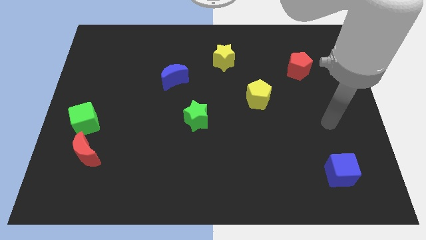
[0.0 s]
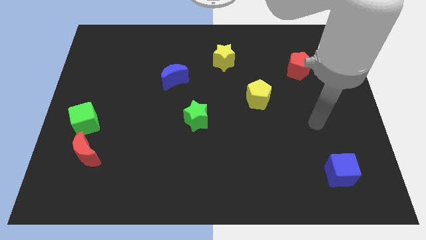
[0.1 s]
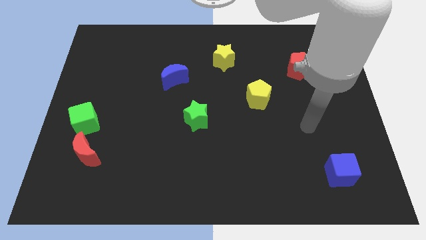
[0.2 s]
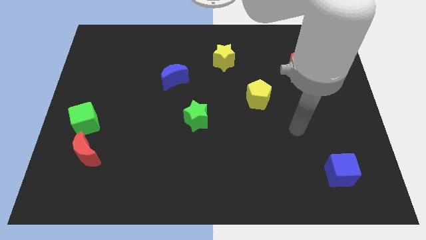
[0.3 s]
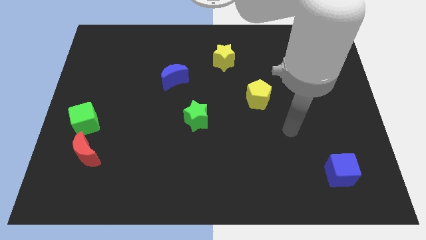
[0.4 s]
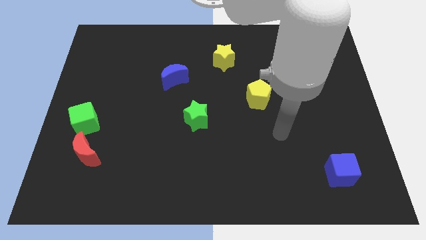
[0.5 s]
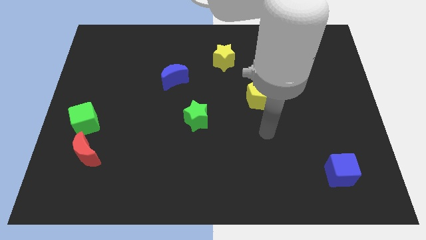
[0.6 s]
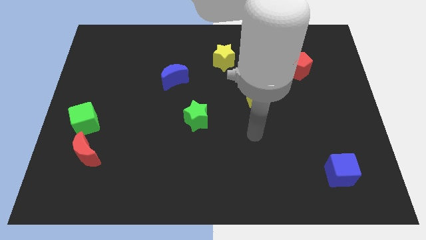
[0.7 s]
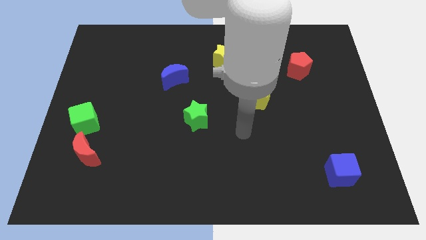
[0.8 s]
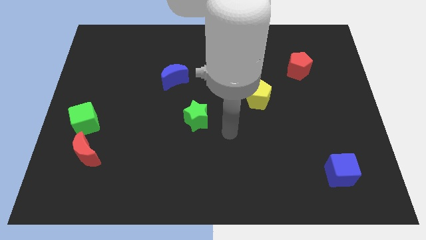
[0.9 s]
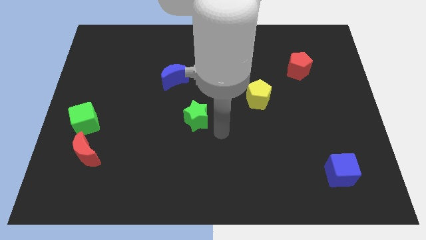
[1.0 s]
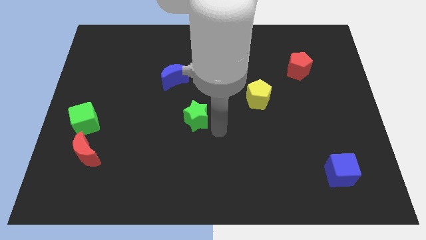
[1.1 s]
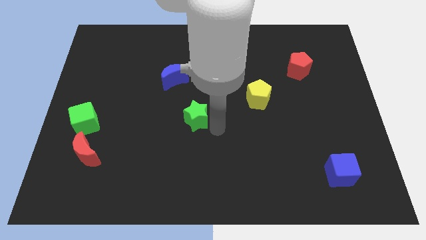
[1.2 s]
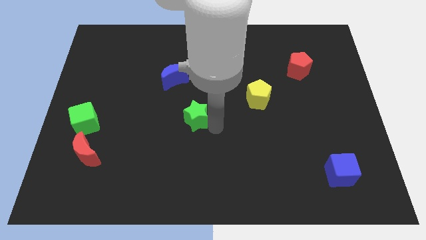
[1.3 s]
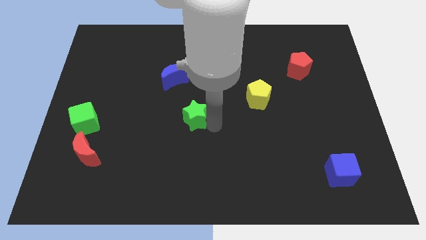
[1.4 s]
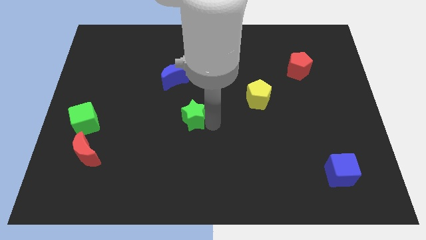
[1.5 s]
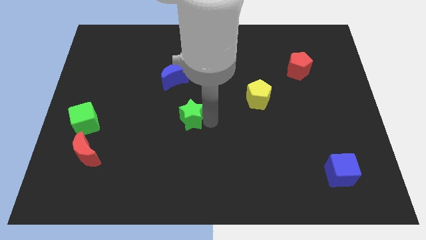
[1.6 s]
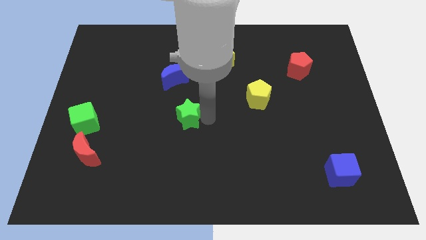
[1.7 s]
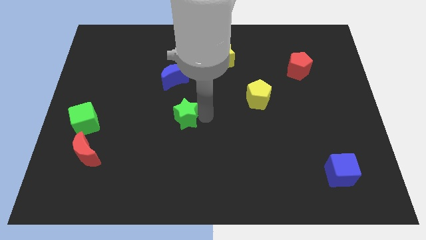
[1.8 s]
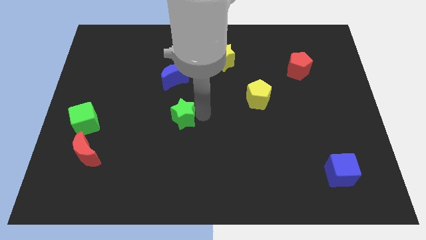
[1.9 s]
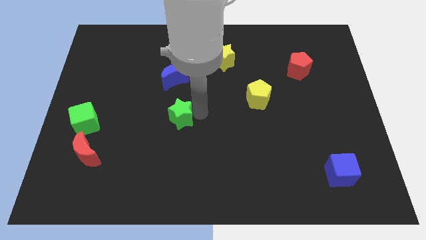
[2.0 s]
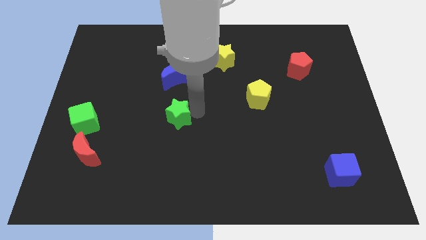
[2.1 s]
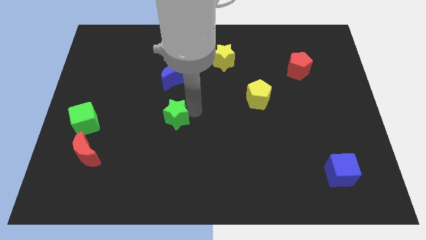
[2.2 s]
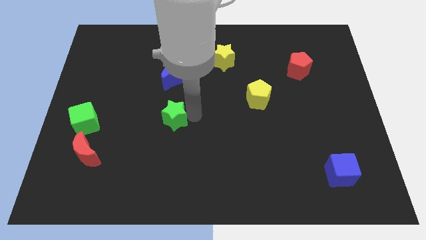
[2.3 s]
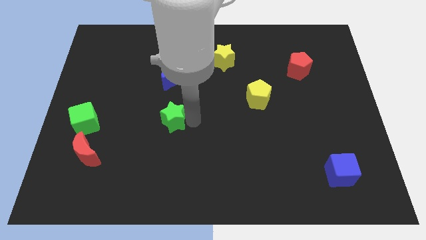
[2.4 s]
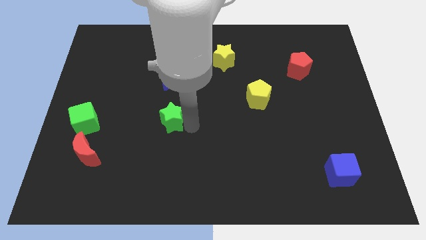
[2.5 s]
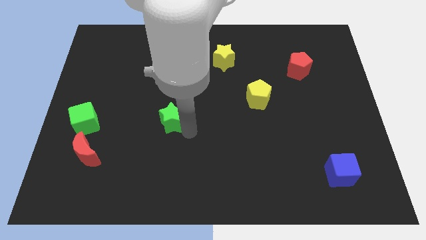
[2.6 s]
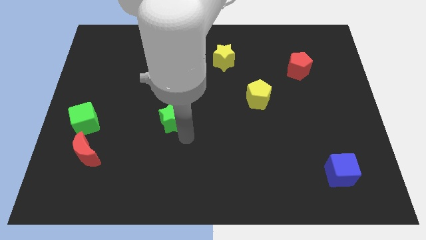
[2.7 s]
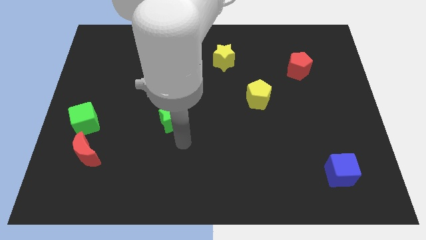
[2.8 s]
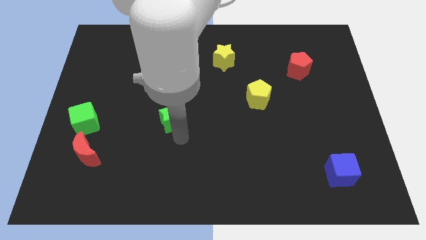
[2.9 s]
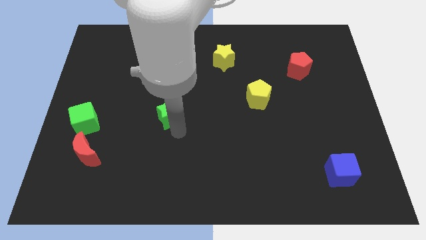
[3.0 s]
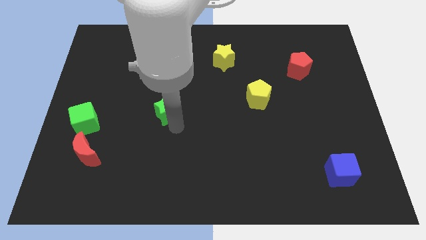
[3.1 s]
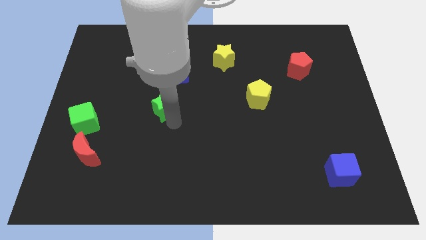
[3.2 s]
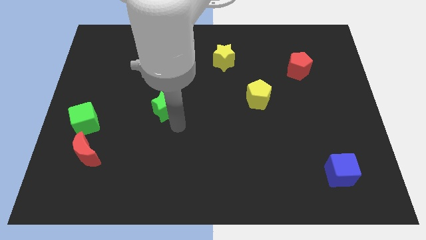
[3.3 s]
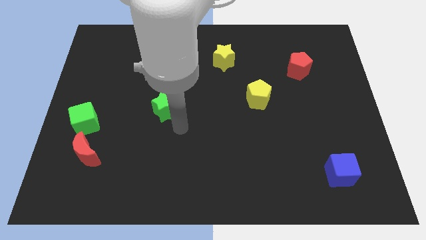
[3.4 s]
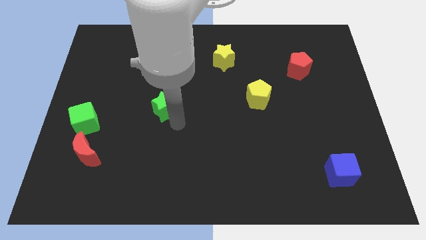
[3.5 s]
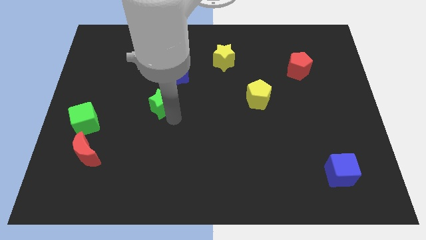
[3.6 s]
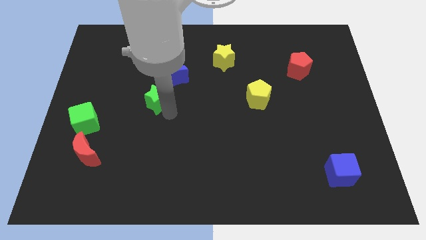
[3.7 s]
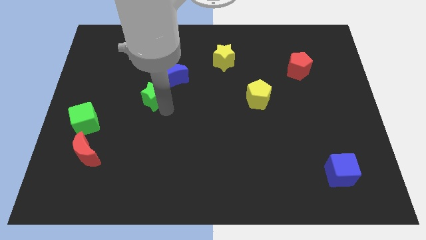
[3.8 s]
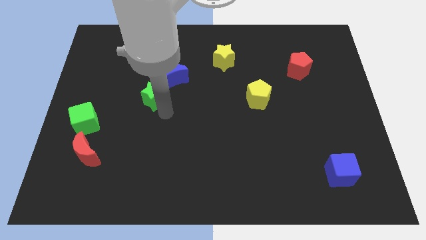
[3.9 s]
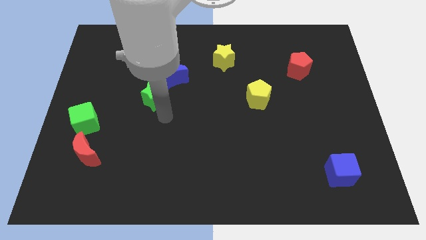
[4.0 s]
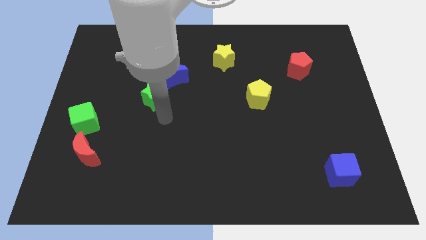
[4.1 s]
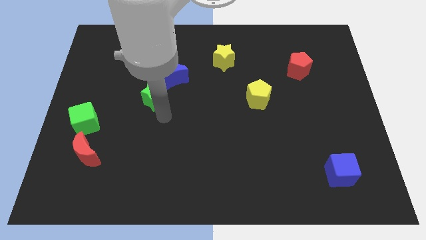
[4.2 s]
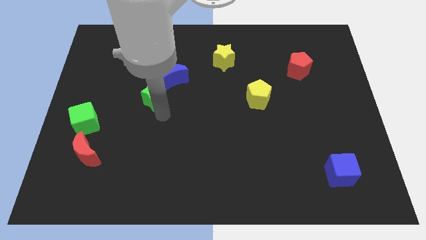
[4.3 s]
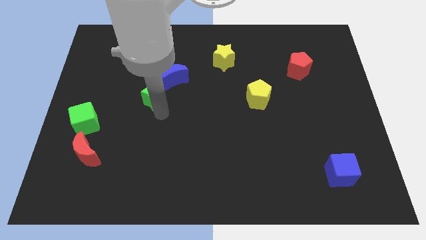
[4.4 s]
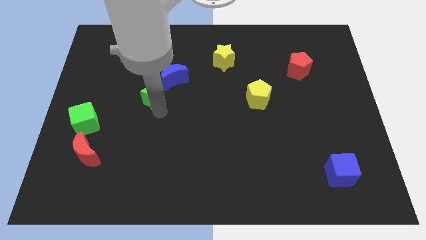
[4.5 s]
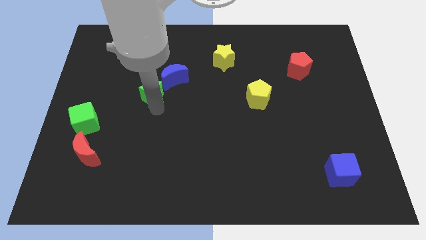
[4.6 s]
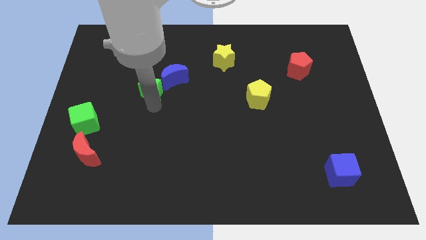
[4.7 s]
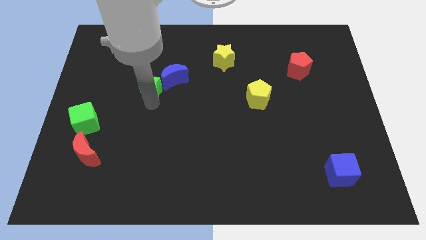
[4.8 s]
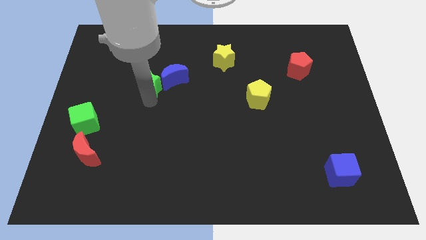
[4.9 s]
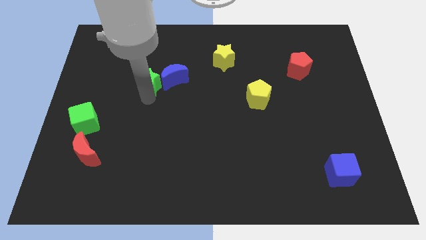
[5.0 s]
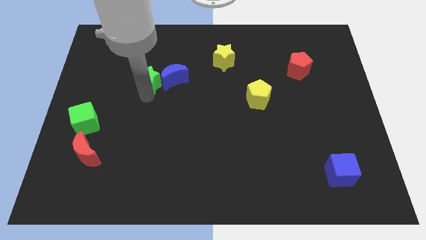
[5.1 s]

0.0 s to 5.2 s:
put the green star to the top left side of the blue moon

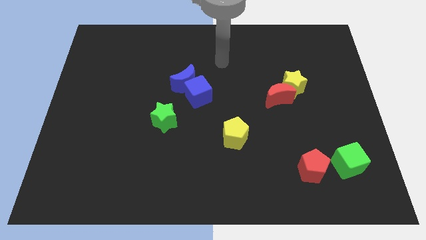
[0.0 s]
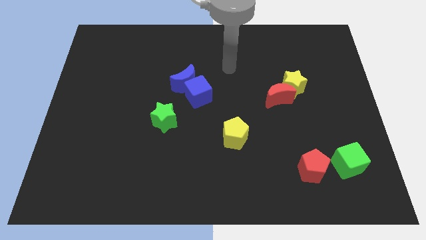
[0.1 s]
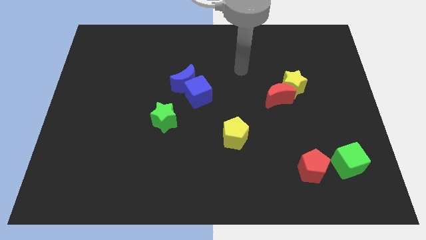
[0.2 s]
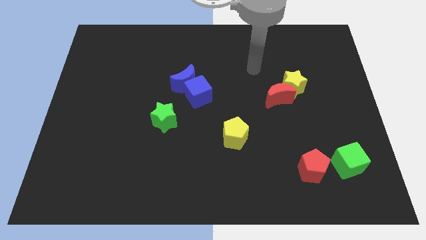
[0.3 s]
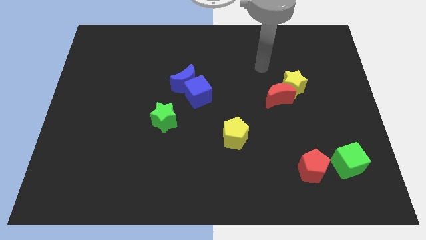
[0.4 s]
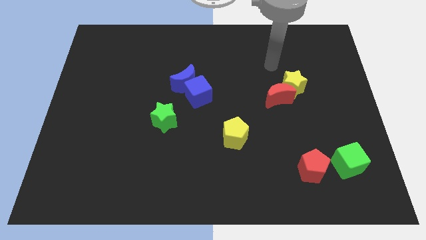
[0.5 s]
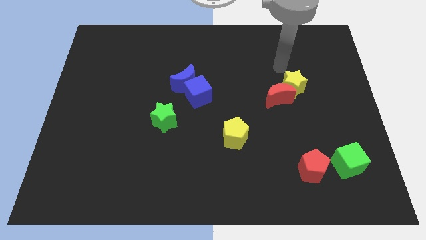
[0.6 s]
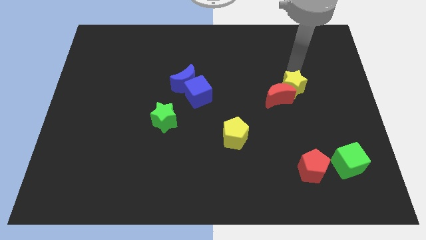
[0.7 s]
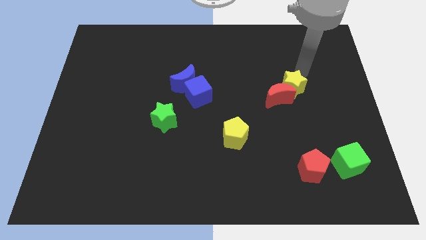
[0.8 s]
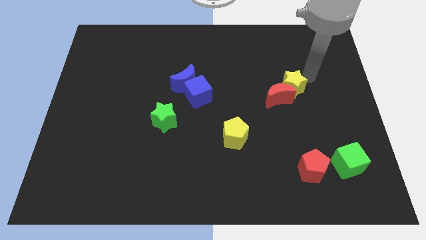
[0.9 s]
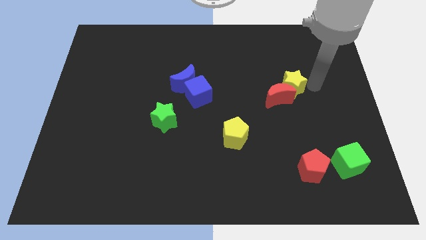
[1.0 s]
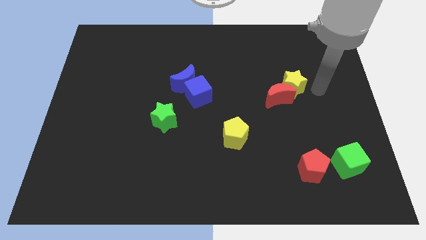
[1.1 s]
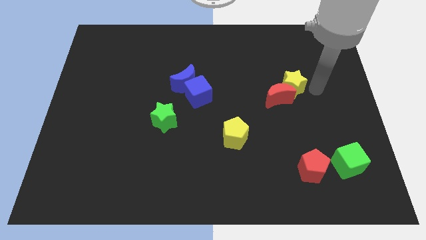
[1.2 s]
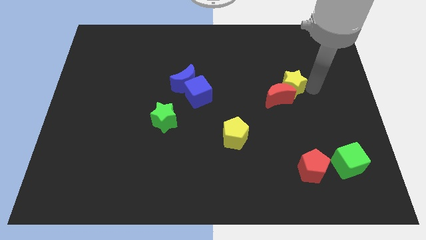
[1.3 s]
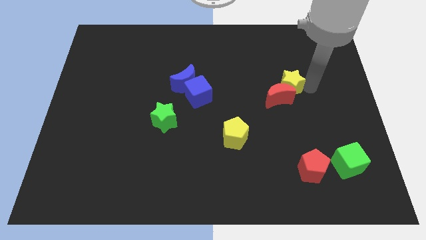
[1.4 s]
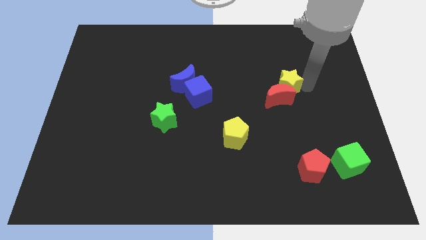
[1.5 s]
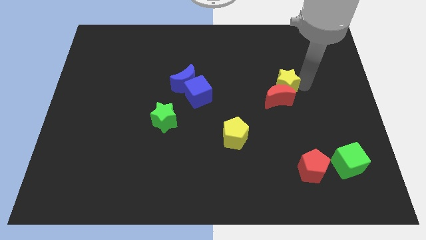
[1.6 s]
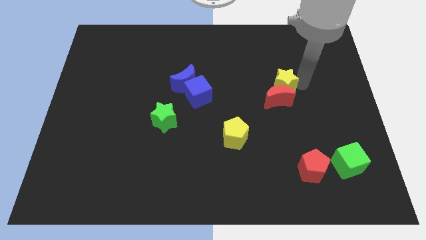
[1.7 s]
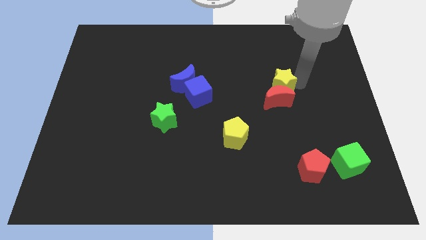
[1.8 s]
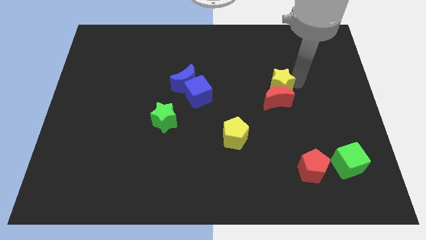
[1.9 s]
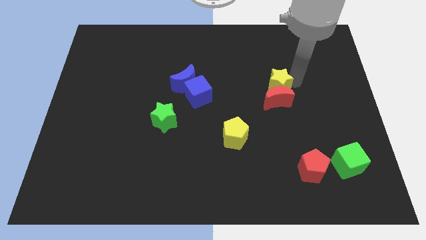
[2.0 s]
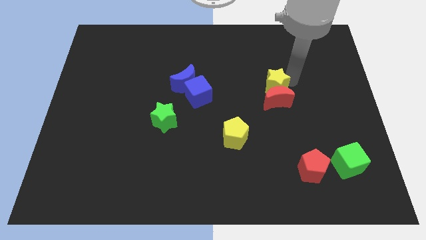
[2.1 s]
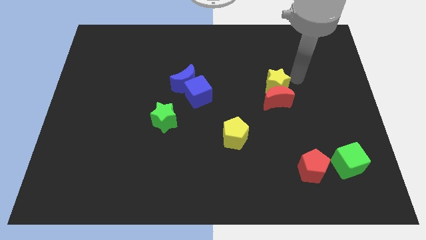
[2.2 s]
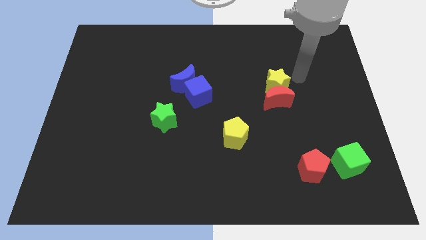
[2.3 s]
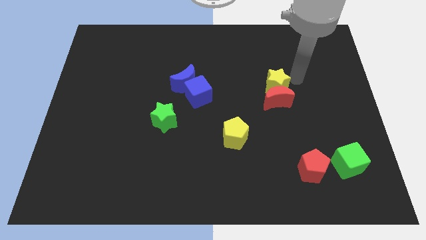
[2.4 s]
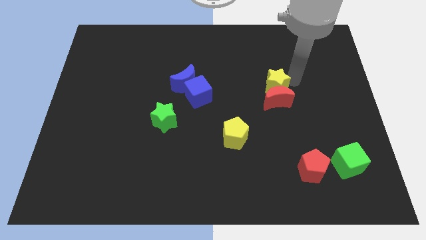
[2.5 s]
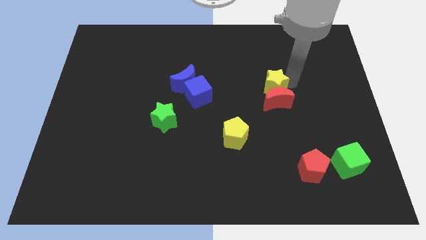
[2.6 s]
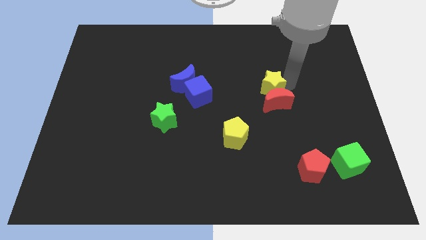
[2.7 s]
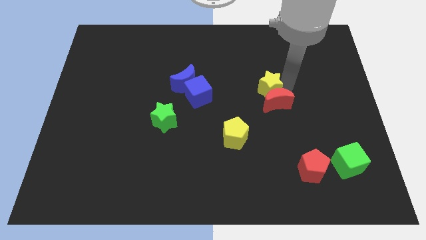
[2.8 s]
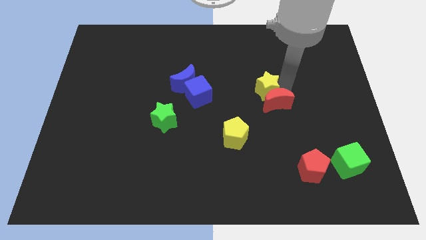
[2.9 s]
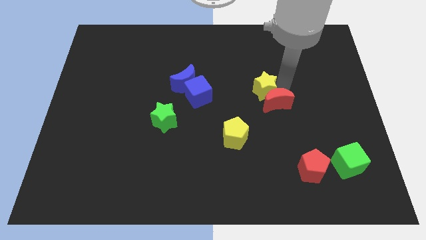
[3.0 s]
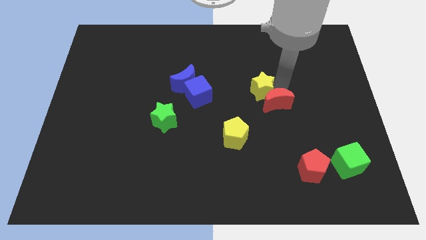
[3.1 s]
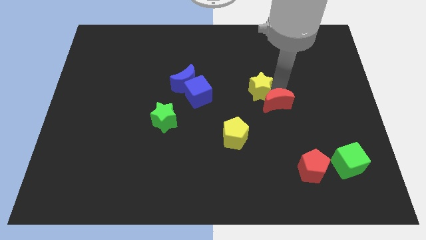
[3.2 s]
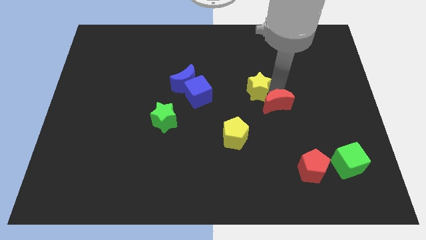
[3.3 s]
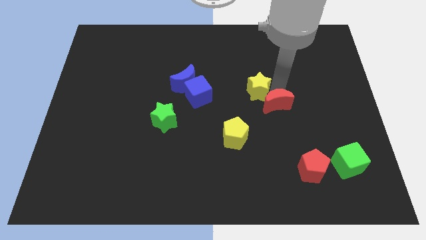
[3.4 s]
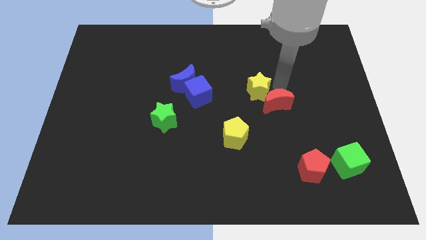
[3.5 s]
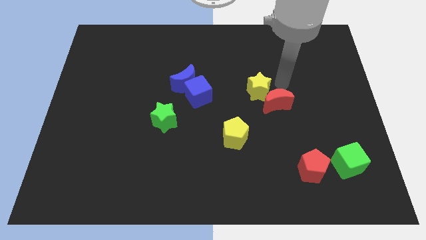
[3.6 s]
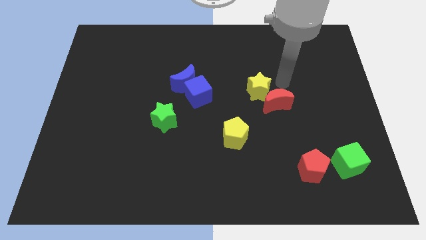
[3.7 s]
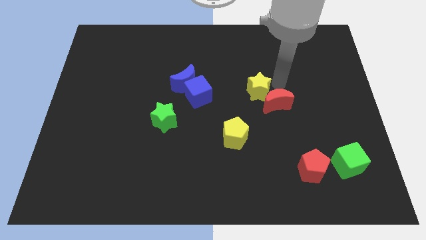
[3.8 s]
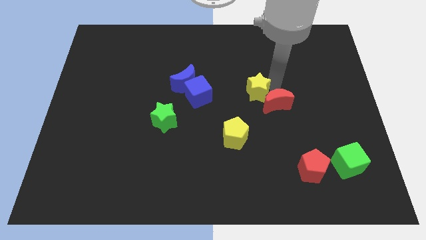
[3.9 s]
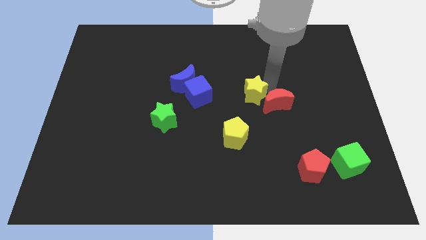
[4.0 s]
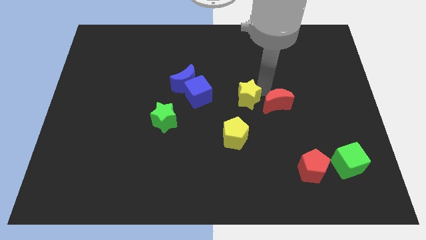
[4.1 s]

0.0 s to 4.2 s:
move the yellow star to the top side of the yellow pentagon
